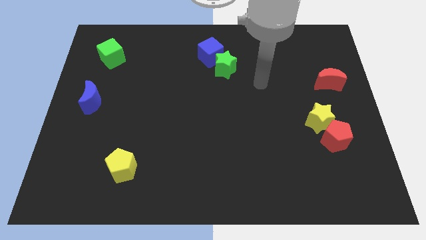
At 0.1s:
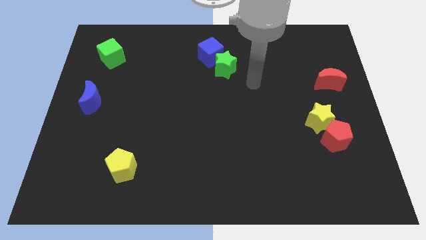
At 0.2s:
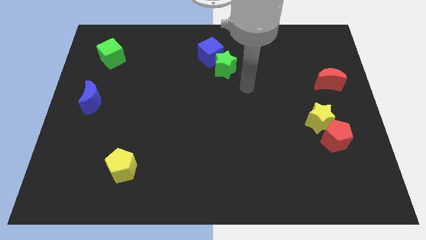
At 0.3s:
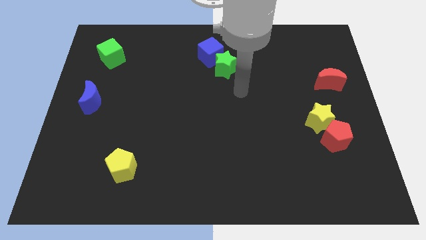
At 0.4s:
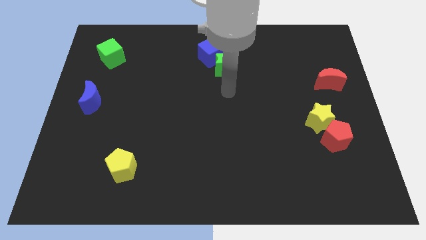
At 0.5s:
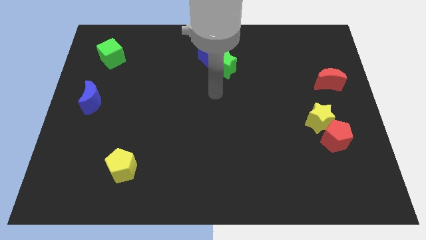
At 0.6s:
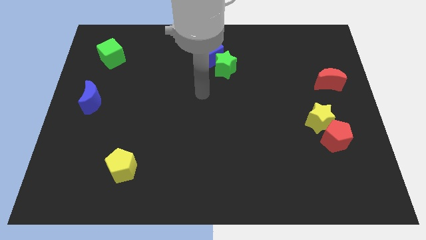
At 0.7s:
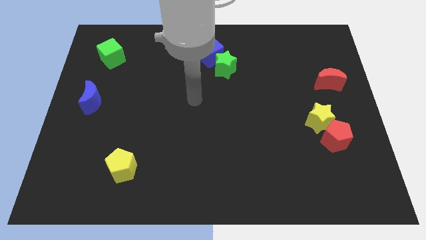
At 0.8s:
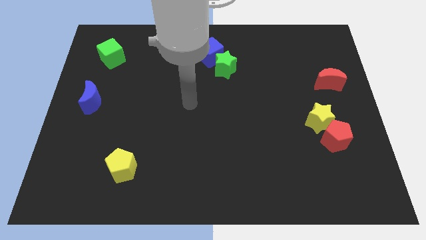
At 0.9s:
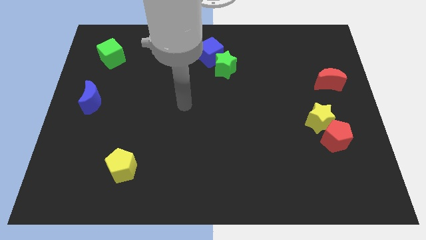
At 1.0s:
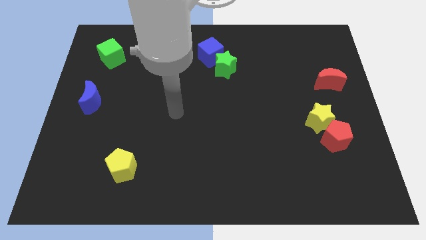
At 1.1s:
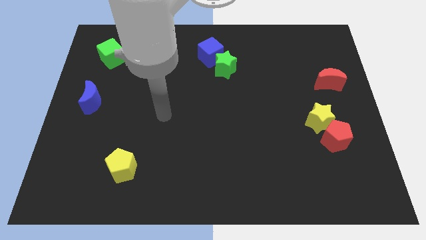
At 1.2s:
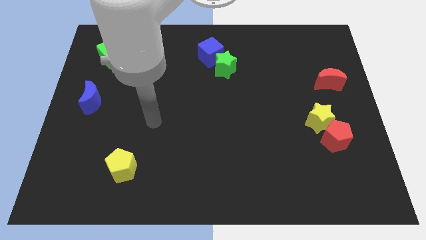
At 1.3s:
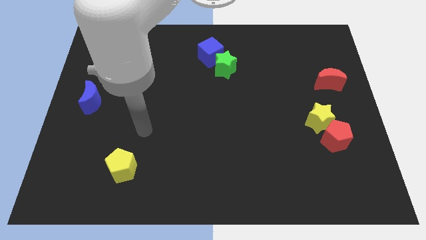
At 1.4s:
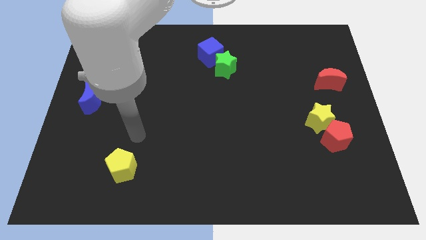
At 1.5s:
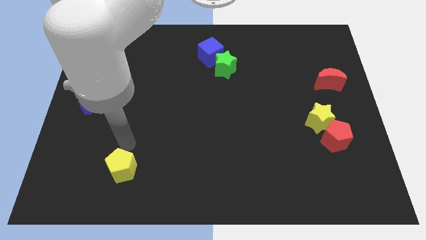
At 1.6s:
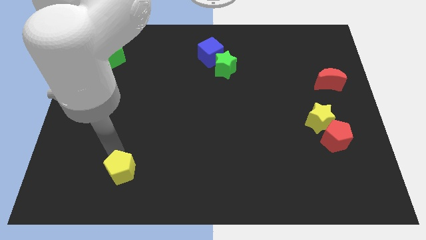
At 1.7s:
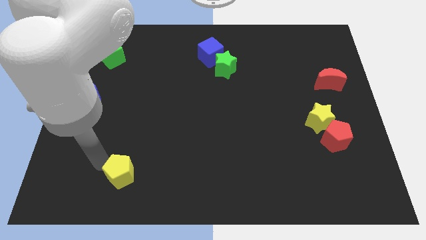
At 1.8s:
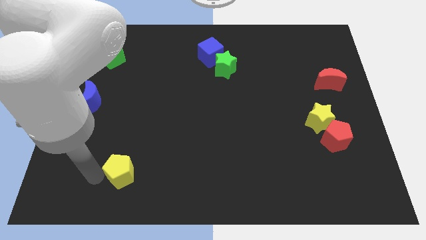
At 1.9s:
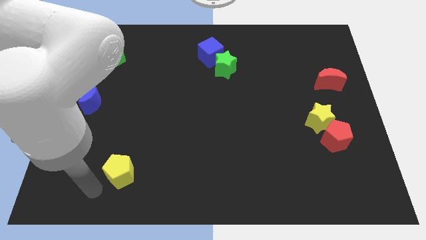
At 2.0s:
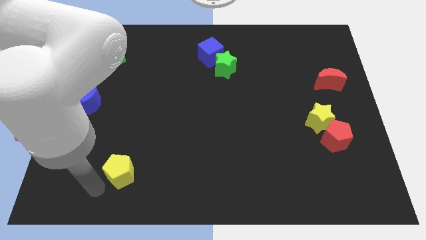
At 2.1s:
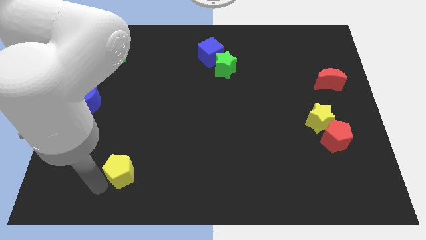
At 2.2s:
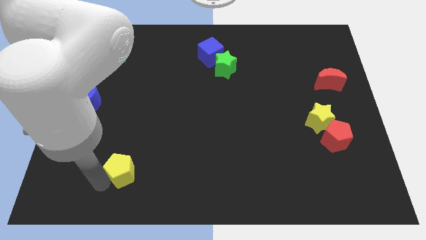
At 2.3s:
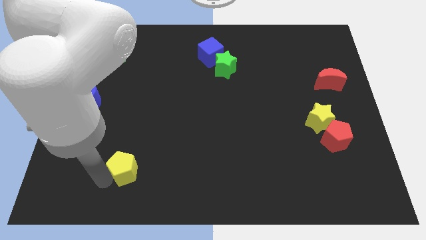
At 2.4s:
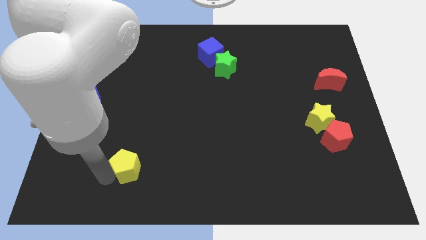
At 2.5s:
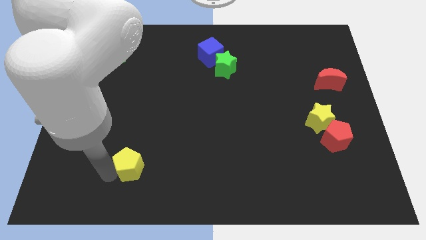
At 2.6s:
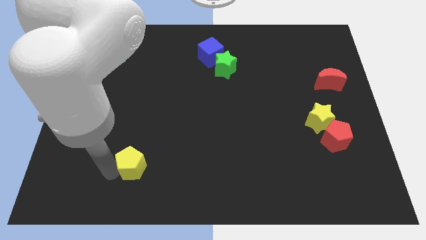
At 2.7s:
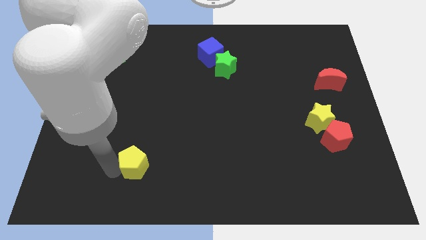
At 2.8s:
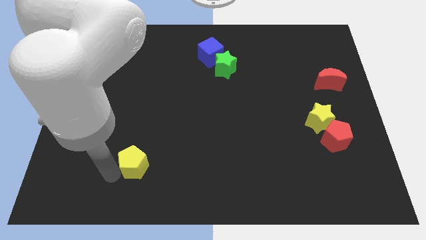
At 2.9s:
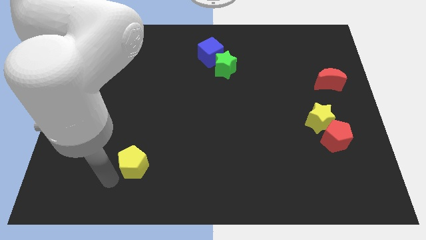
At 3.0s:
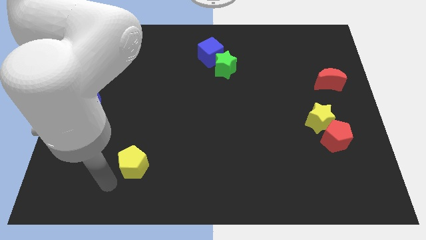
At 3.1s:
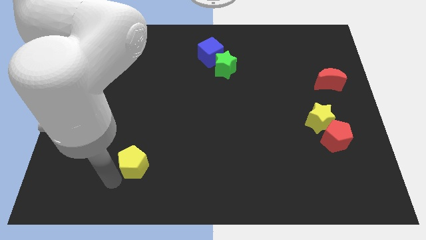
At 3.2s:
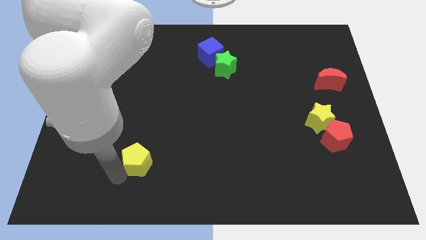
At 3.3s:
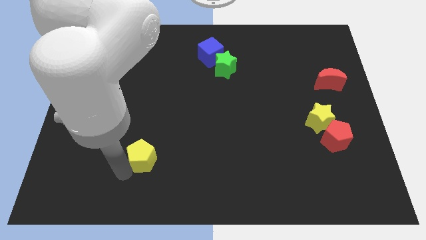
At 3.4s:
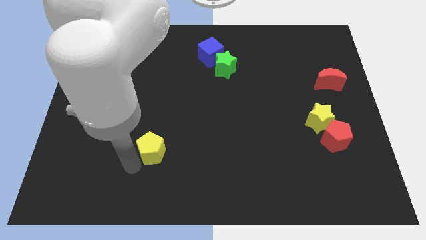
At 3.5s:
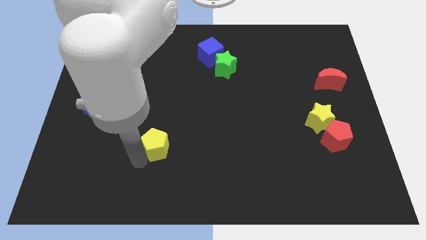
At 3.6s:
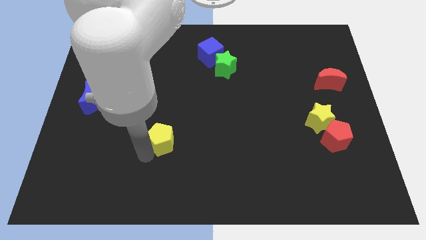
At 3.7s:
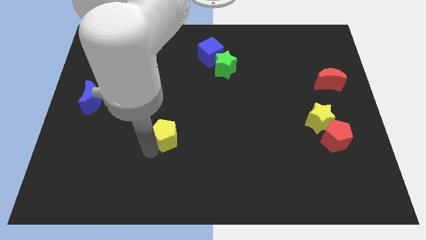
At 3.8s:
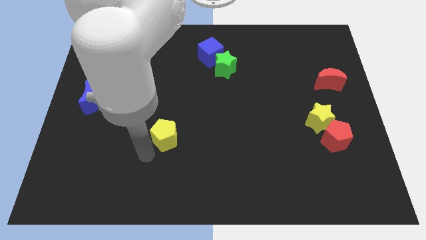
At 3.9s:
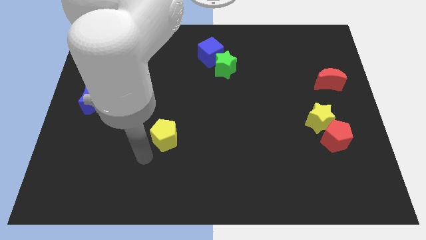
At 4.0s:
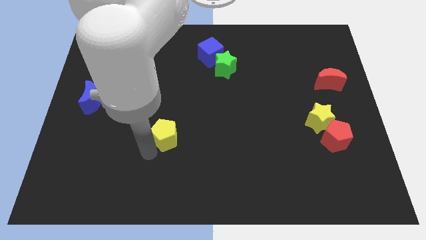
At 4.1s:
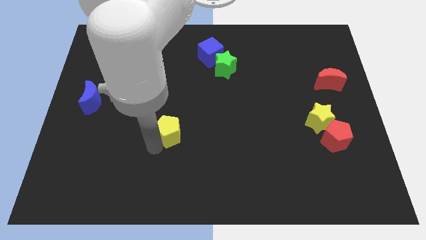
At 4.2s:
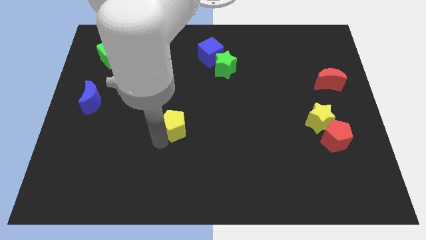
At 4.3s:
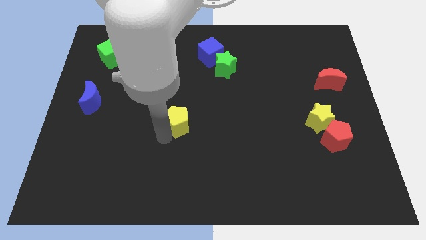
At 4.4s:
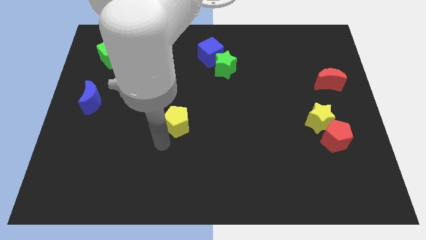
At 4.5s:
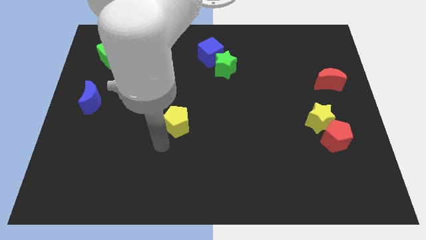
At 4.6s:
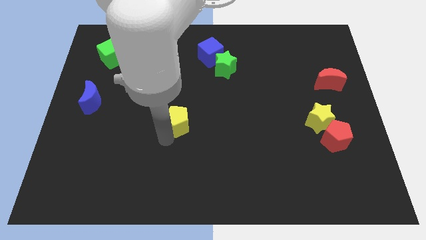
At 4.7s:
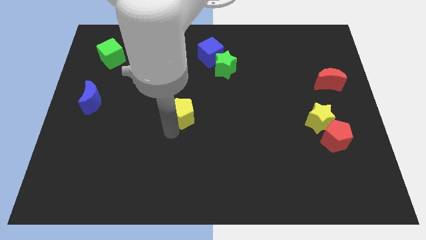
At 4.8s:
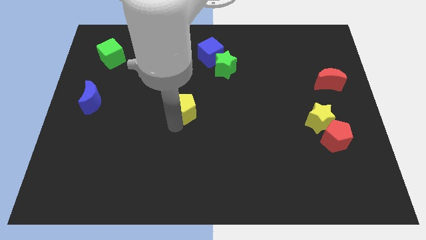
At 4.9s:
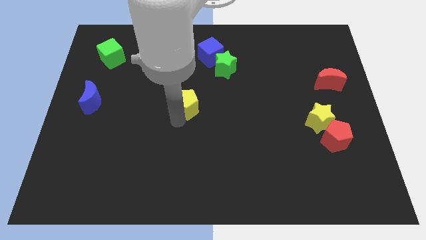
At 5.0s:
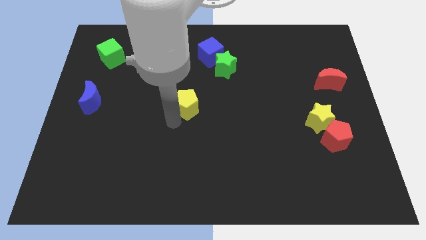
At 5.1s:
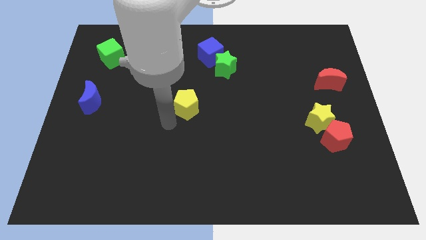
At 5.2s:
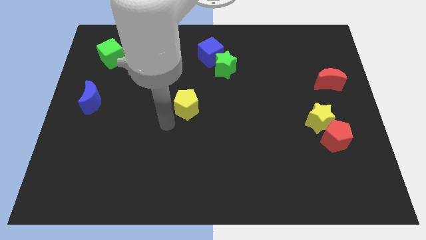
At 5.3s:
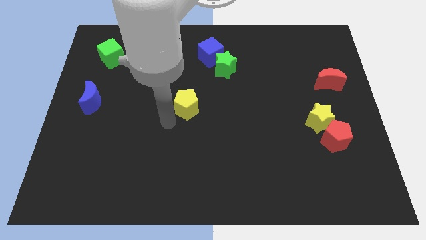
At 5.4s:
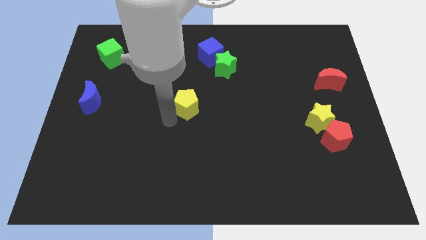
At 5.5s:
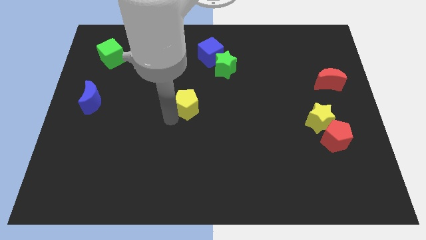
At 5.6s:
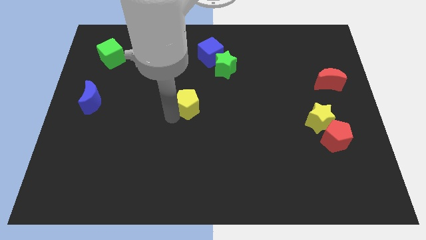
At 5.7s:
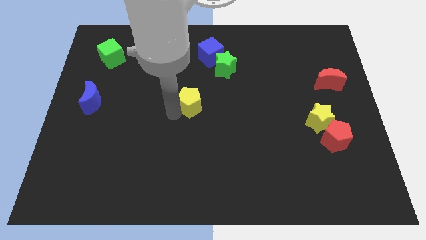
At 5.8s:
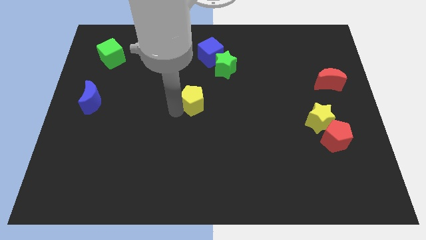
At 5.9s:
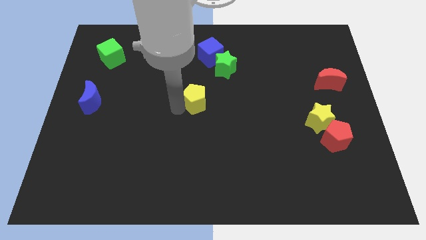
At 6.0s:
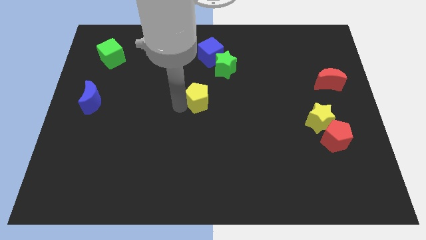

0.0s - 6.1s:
move the yellow pentagon below the blue cube
